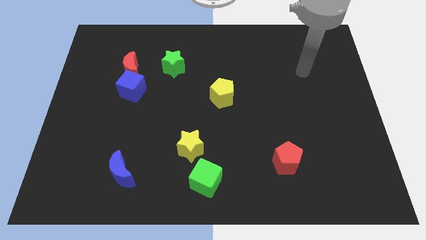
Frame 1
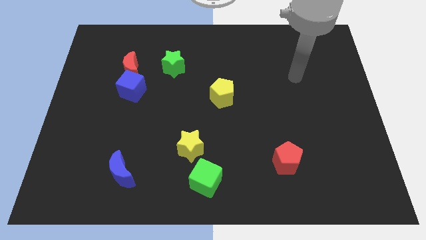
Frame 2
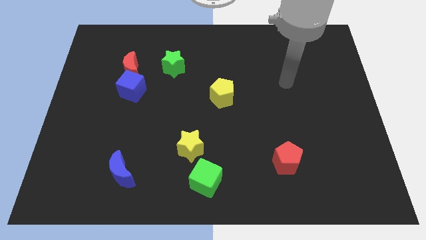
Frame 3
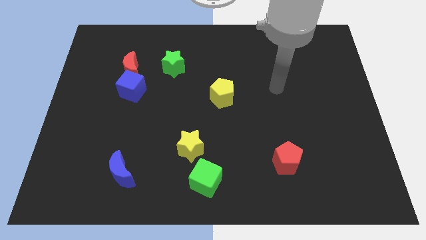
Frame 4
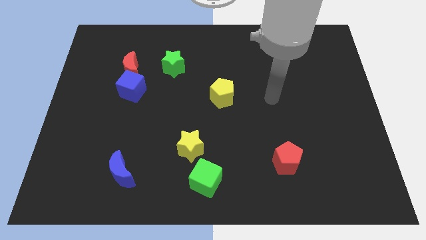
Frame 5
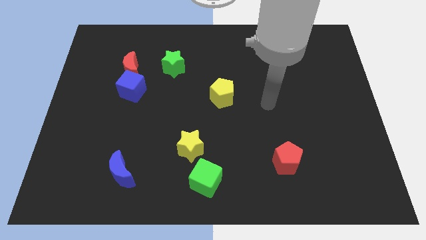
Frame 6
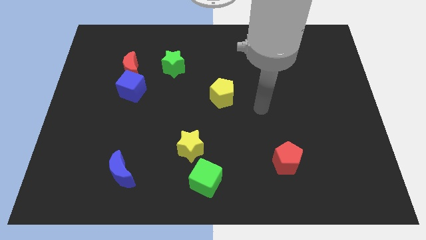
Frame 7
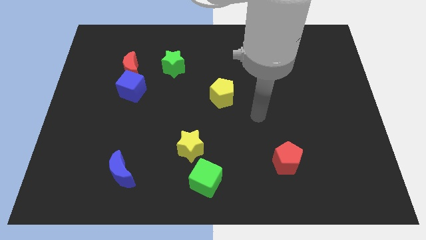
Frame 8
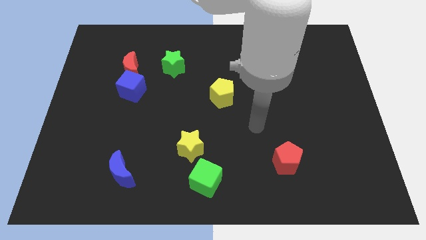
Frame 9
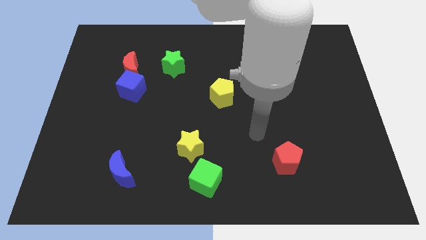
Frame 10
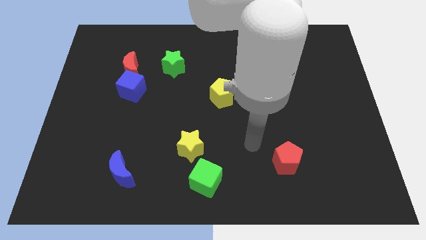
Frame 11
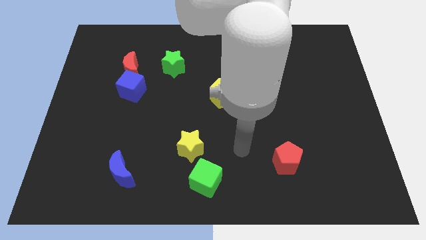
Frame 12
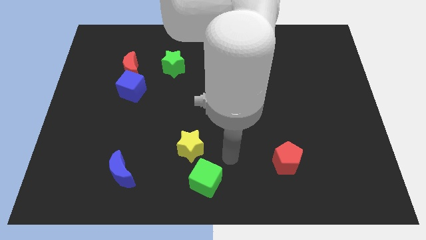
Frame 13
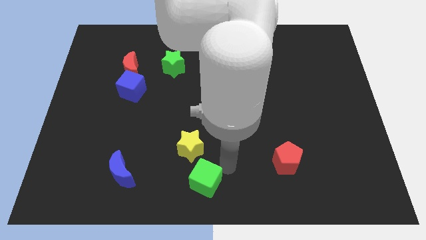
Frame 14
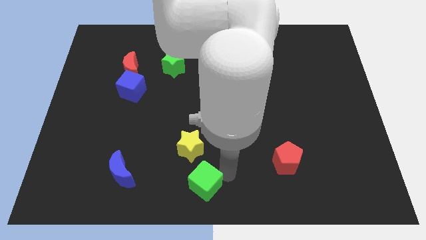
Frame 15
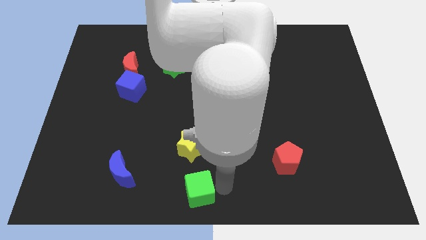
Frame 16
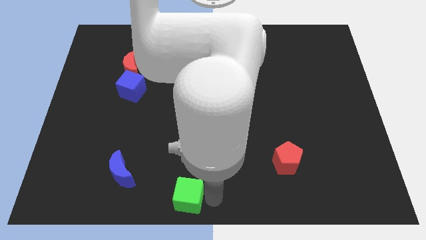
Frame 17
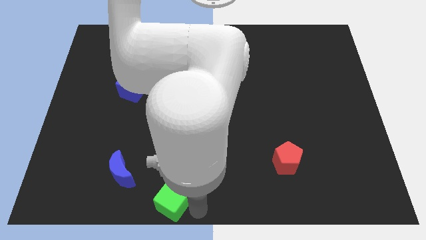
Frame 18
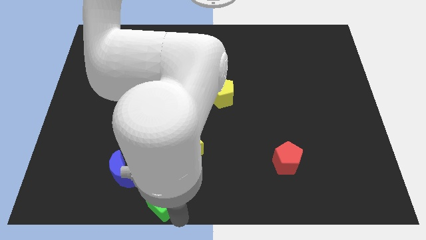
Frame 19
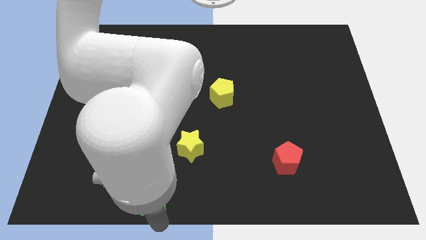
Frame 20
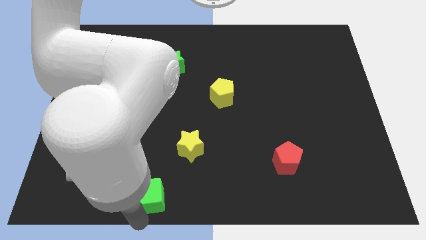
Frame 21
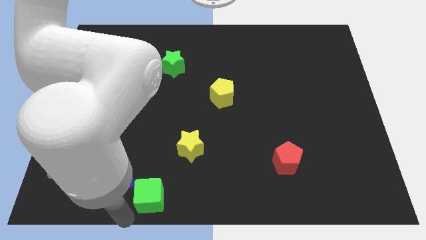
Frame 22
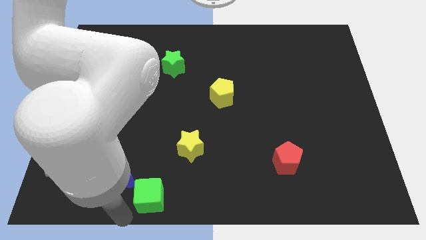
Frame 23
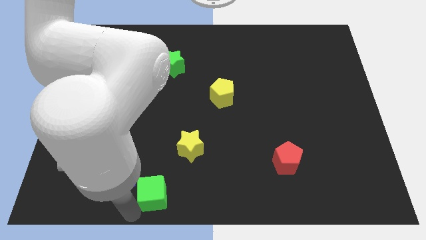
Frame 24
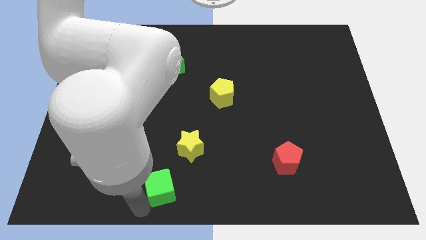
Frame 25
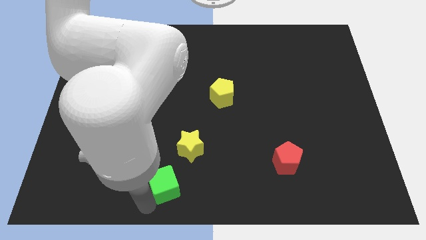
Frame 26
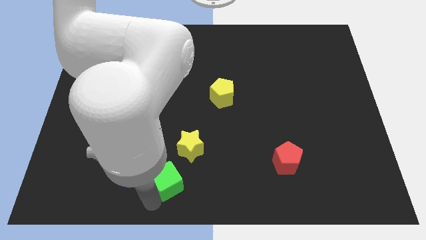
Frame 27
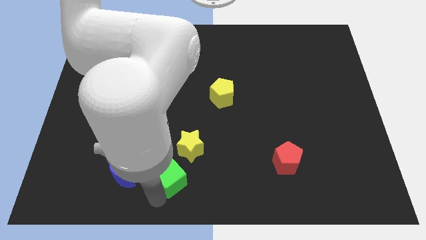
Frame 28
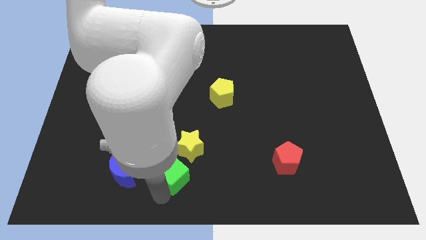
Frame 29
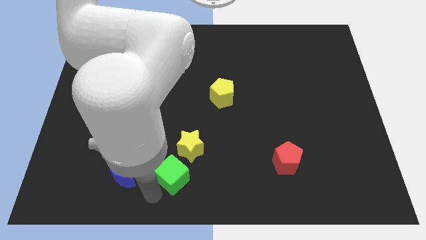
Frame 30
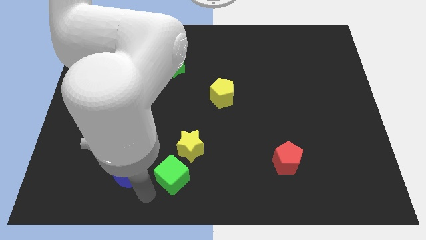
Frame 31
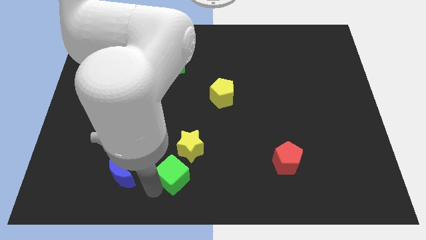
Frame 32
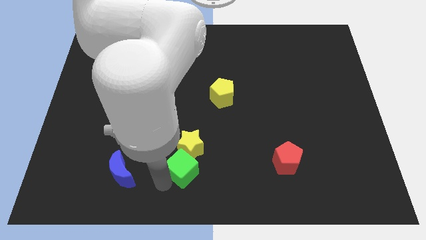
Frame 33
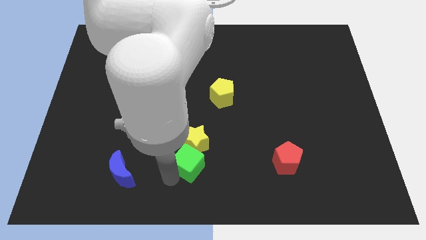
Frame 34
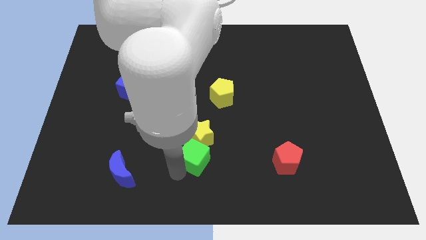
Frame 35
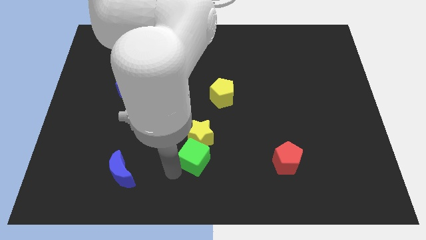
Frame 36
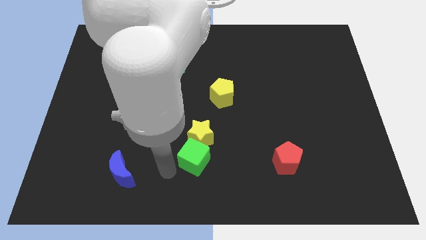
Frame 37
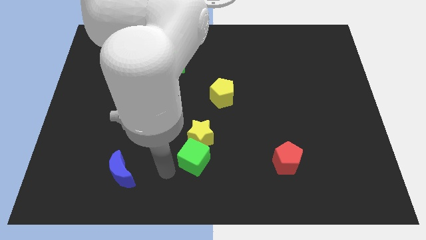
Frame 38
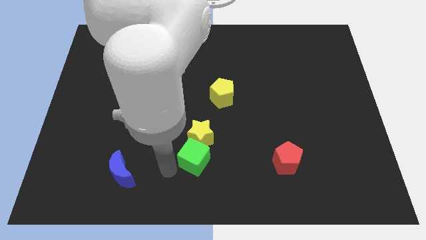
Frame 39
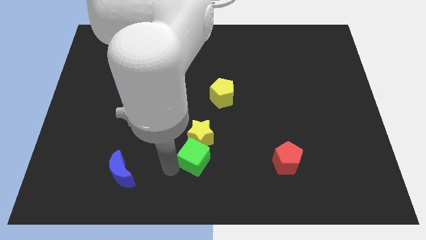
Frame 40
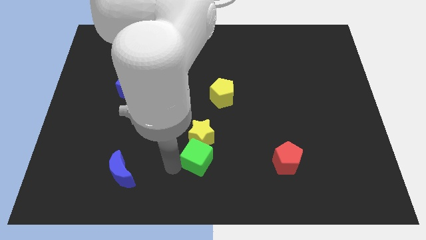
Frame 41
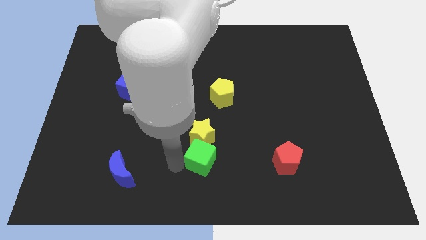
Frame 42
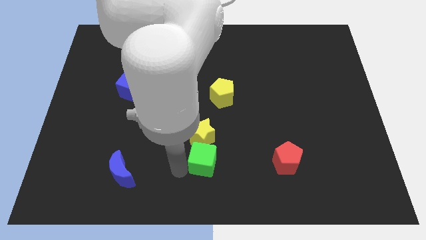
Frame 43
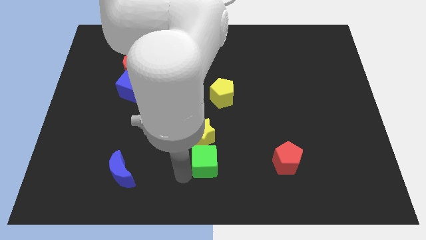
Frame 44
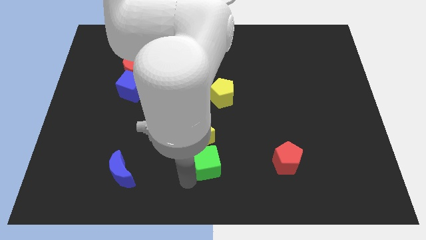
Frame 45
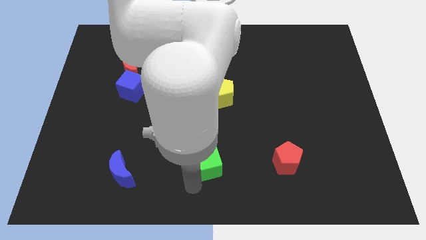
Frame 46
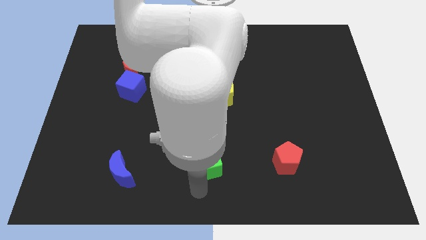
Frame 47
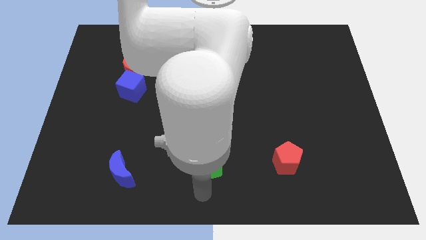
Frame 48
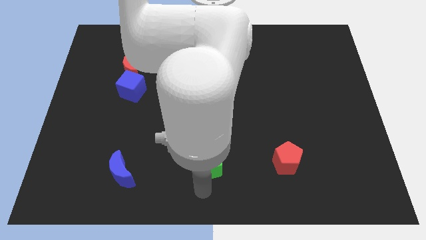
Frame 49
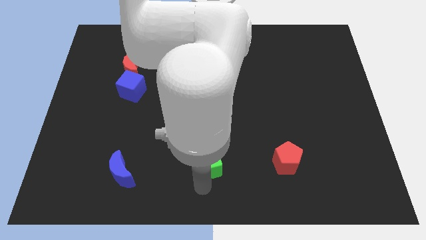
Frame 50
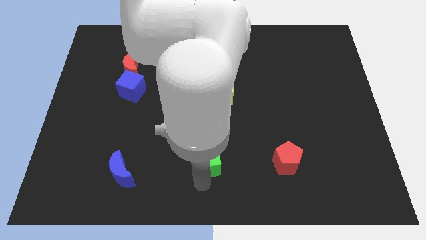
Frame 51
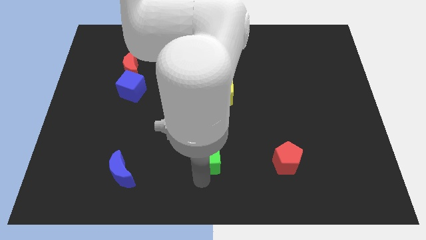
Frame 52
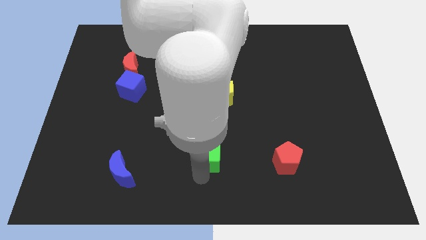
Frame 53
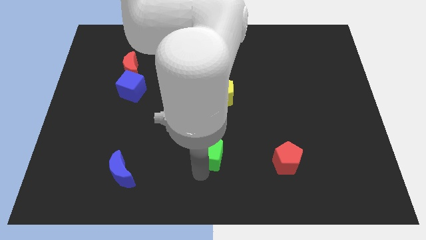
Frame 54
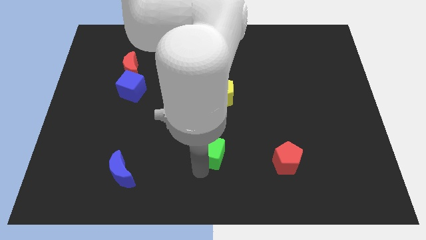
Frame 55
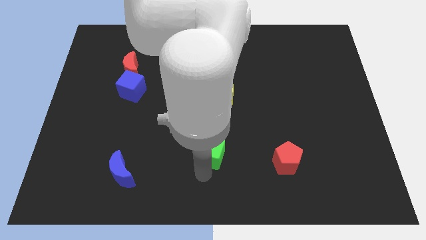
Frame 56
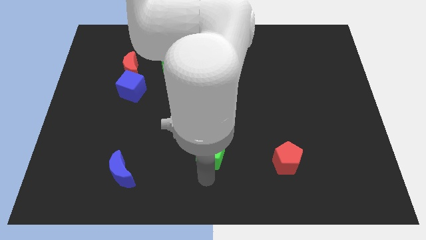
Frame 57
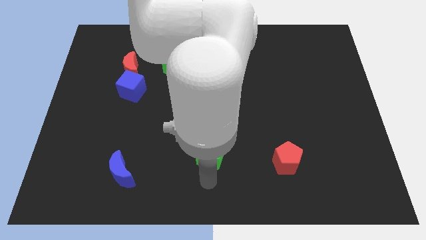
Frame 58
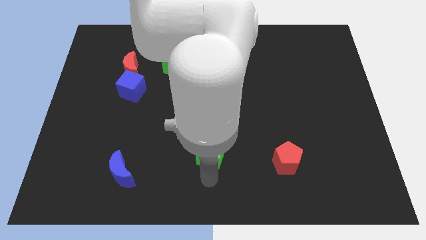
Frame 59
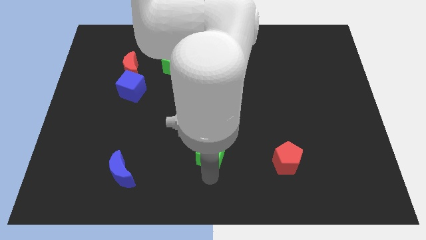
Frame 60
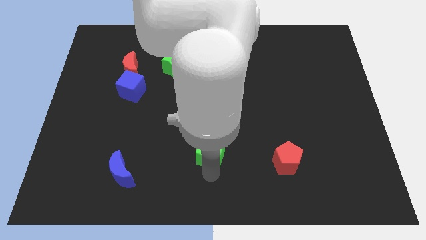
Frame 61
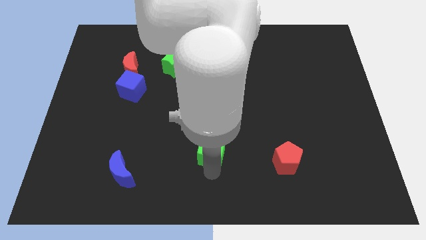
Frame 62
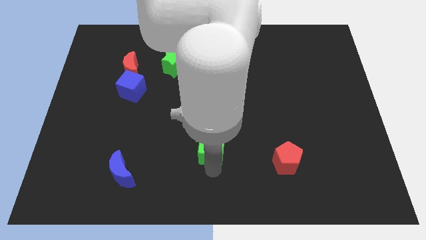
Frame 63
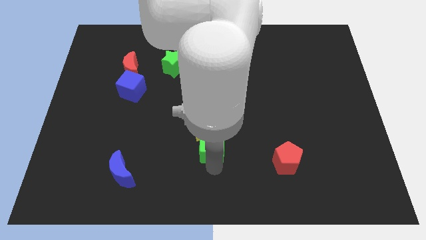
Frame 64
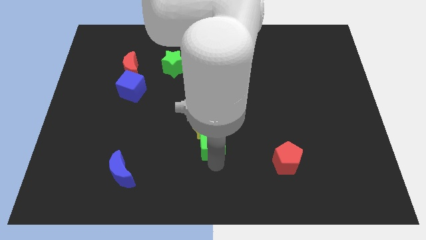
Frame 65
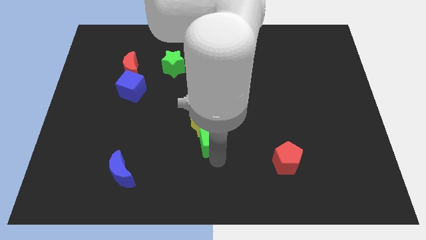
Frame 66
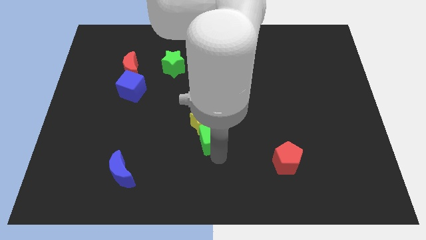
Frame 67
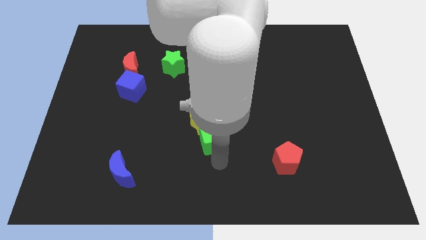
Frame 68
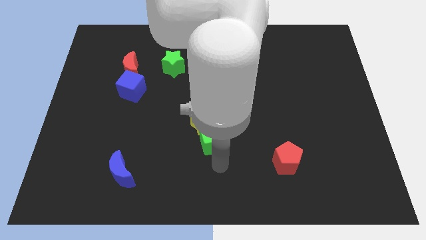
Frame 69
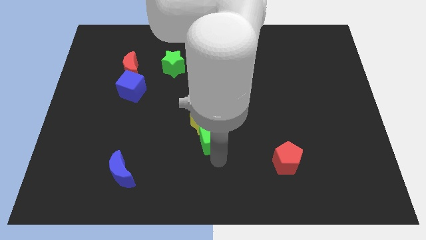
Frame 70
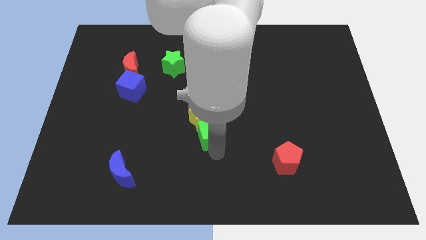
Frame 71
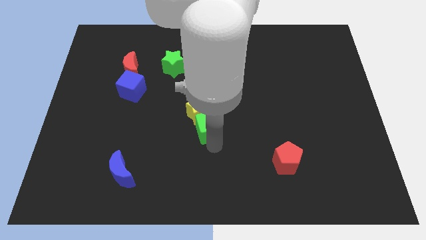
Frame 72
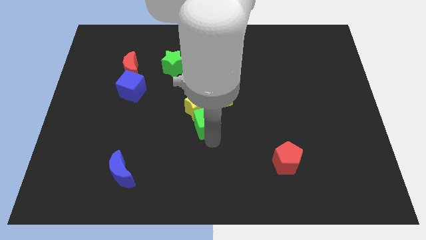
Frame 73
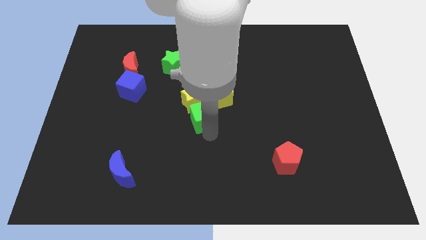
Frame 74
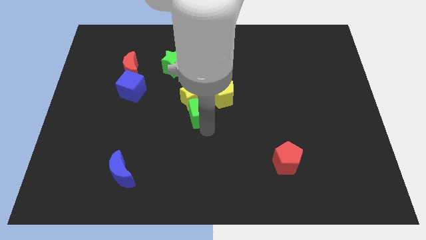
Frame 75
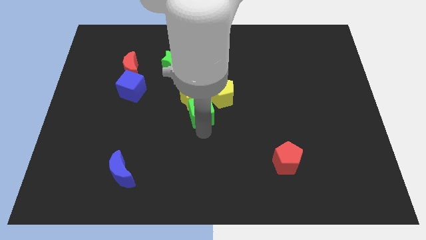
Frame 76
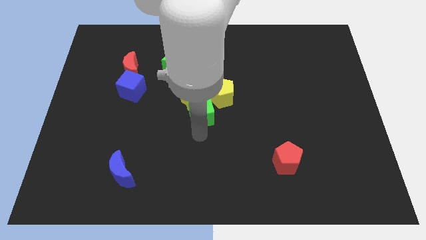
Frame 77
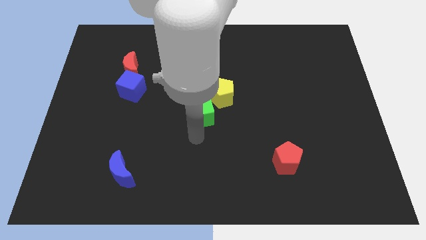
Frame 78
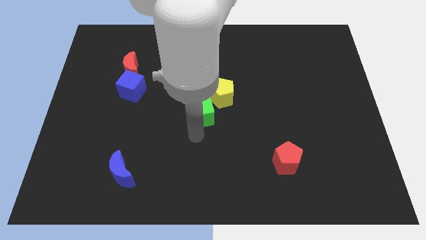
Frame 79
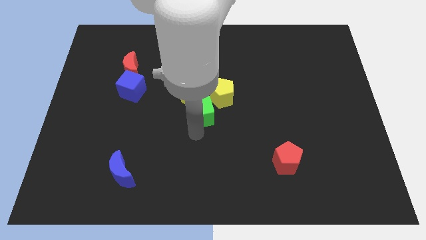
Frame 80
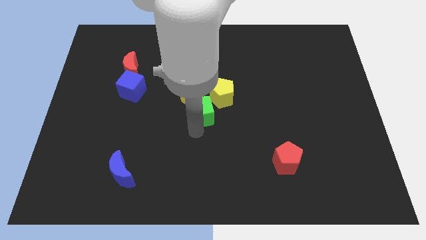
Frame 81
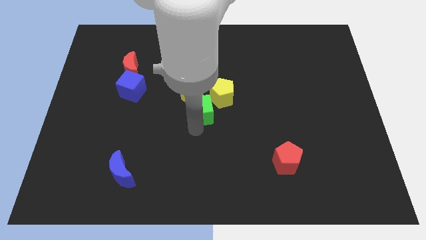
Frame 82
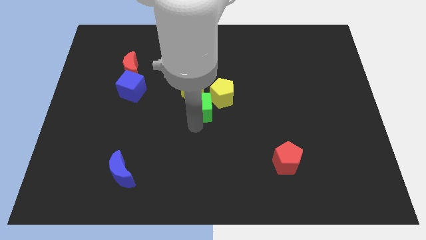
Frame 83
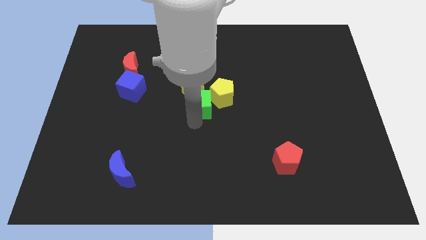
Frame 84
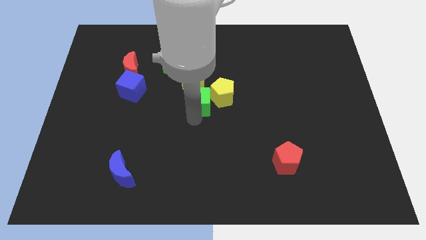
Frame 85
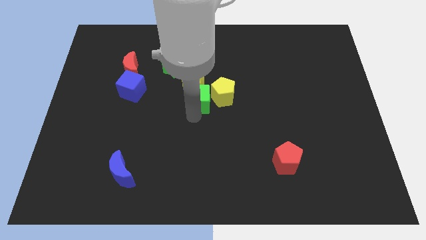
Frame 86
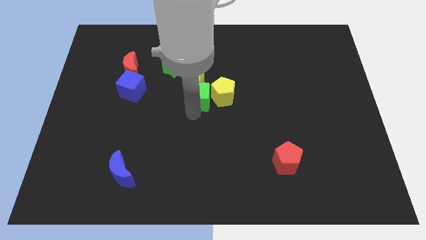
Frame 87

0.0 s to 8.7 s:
put the green cube to the top left side of the yellow pentagon
